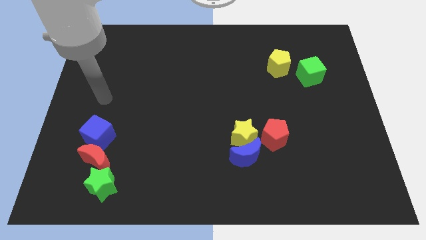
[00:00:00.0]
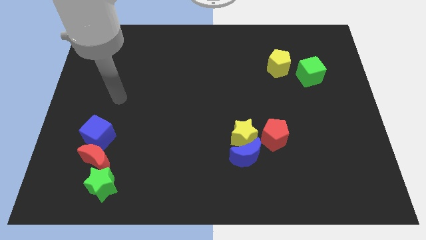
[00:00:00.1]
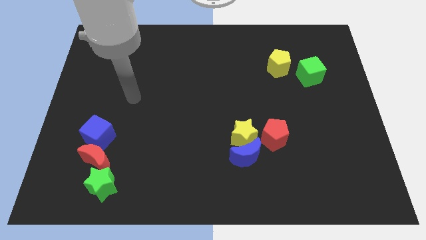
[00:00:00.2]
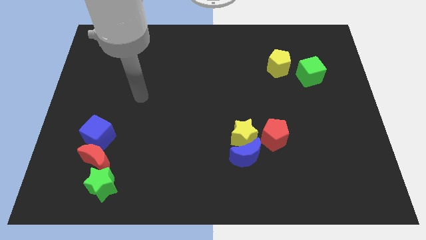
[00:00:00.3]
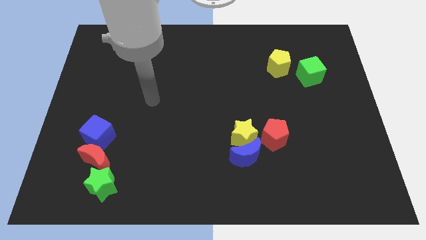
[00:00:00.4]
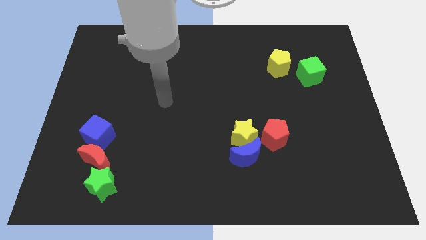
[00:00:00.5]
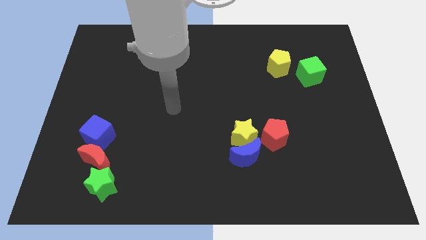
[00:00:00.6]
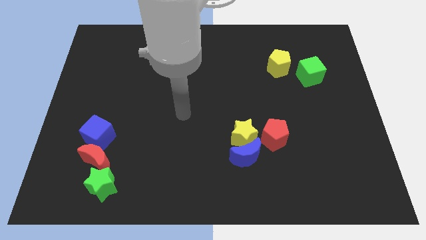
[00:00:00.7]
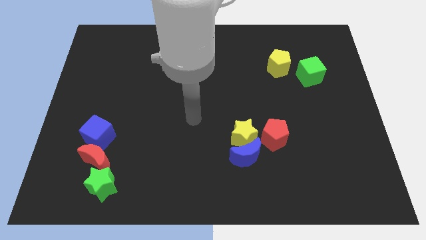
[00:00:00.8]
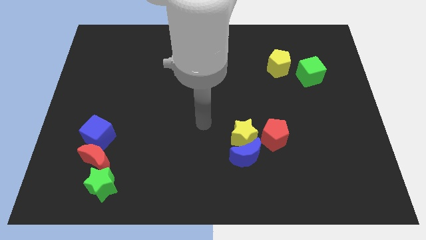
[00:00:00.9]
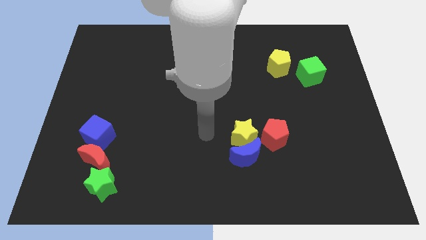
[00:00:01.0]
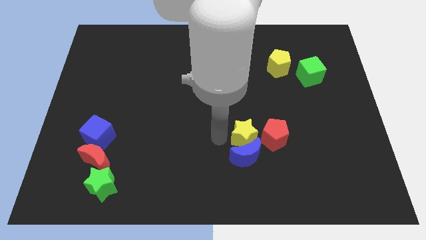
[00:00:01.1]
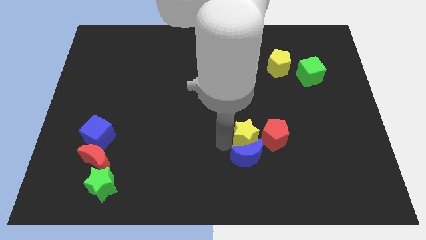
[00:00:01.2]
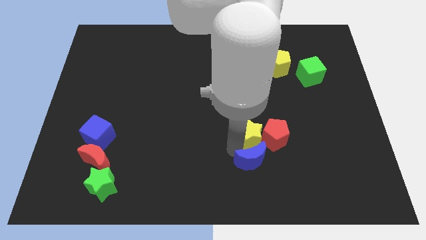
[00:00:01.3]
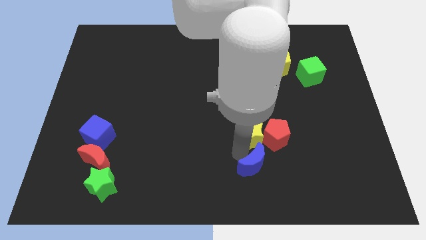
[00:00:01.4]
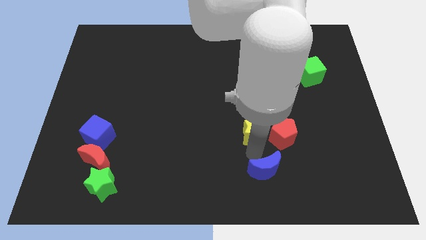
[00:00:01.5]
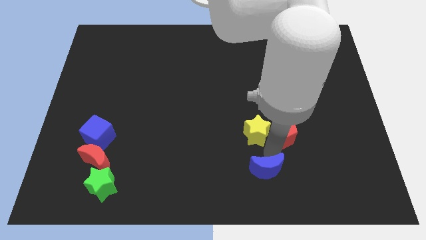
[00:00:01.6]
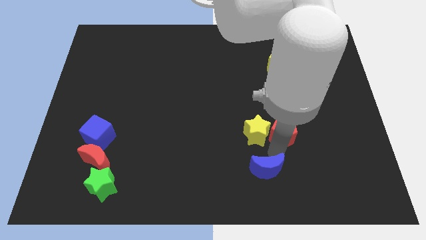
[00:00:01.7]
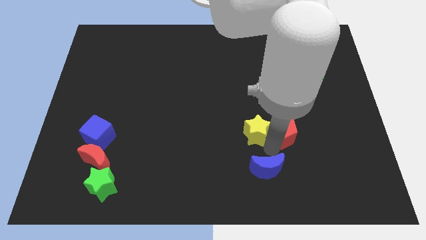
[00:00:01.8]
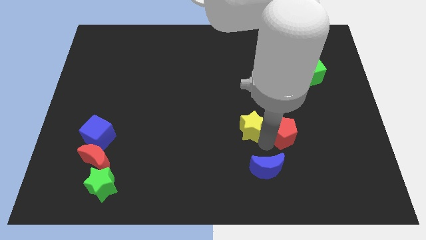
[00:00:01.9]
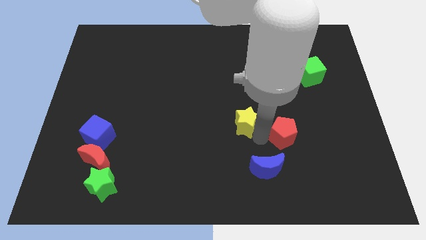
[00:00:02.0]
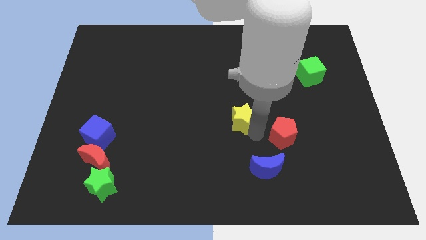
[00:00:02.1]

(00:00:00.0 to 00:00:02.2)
separate the yellow star from the blue moon and red pentagon

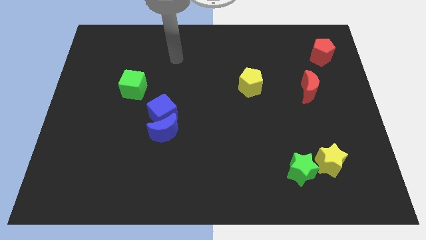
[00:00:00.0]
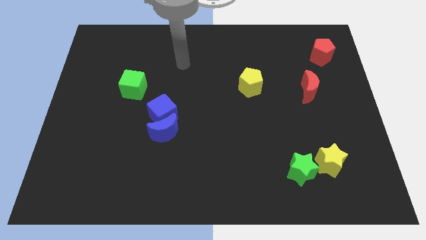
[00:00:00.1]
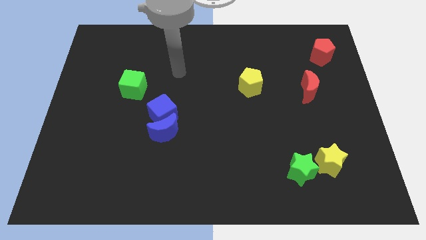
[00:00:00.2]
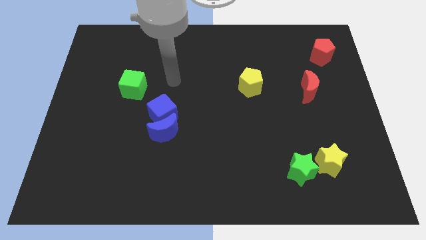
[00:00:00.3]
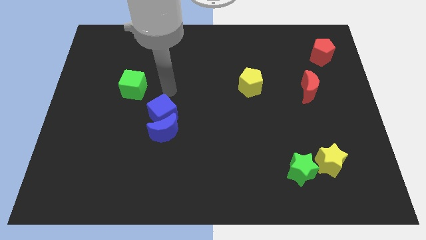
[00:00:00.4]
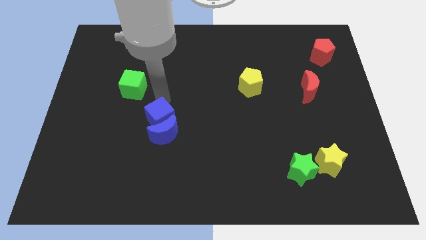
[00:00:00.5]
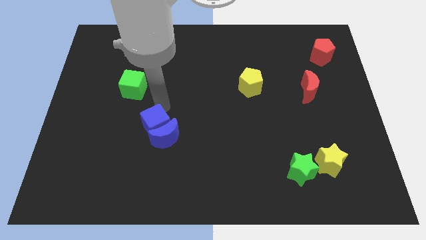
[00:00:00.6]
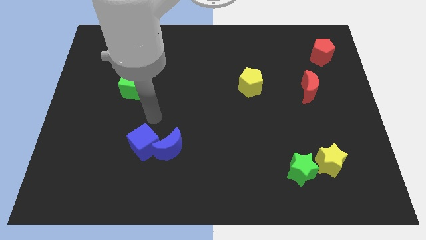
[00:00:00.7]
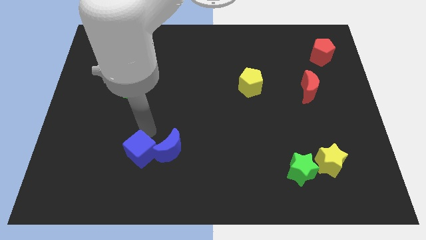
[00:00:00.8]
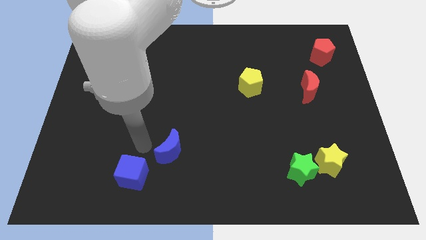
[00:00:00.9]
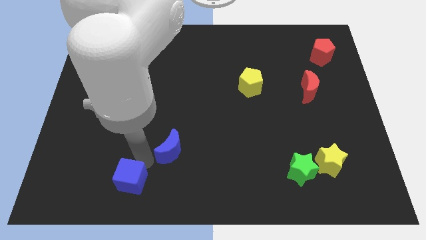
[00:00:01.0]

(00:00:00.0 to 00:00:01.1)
move the blue moon away from the blue cube

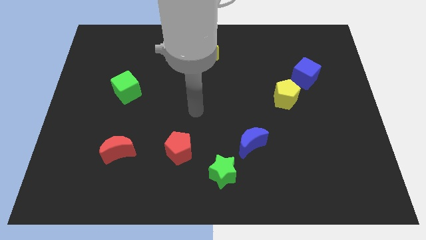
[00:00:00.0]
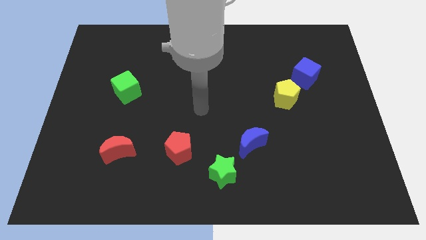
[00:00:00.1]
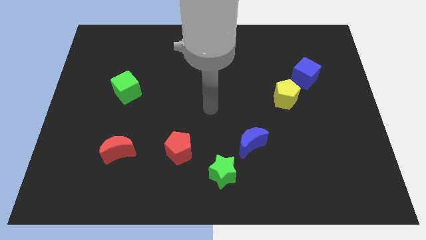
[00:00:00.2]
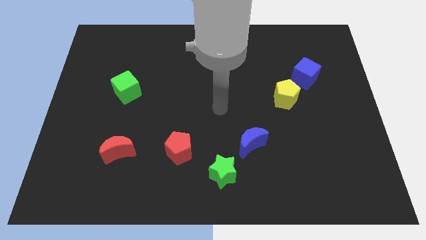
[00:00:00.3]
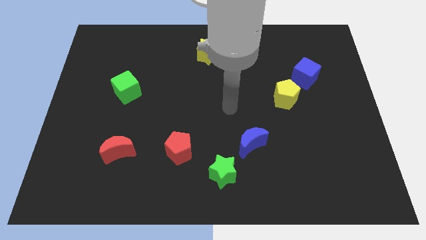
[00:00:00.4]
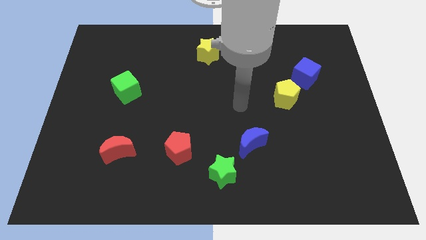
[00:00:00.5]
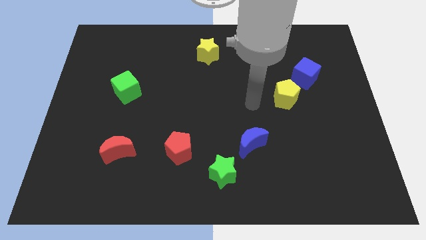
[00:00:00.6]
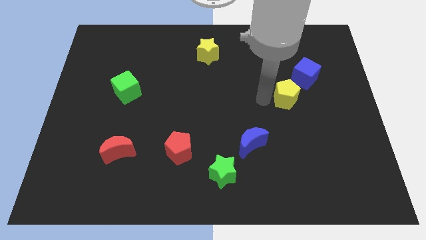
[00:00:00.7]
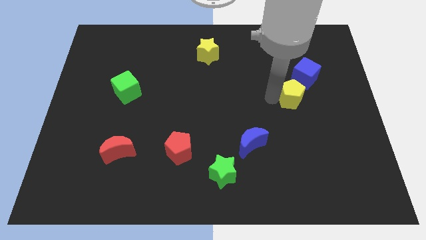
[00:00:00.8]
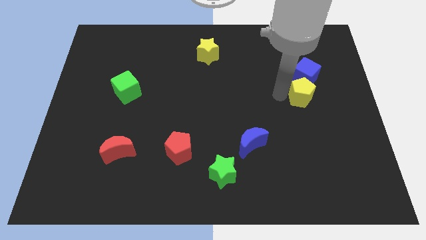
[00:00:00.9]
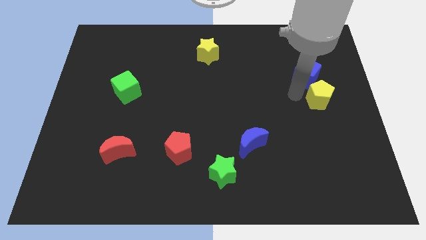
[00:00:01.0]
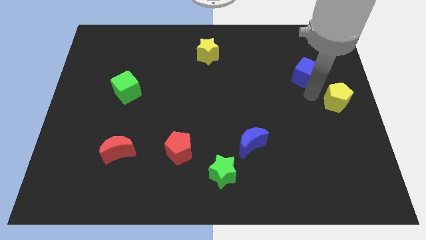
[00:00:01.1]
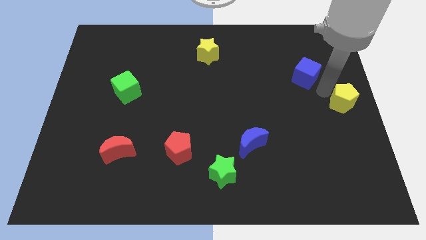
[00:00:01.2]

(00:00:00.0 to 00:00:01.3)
move the blue cube away from the yellow pentagon

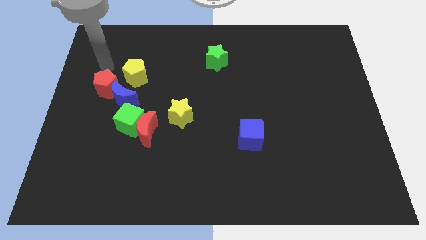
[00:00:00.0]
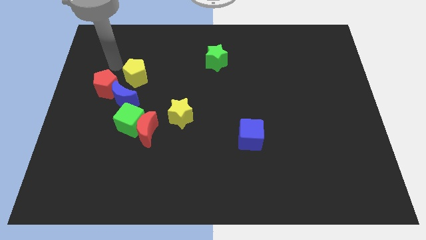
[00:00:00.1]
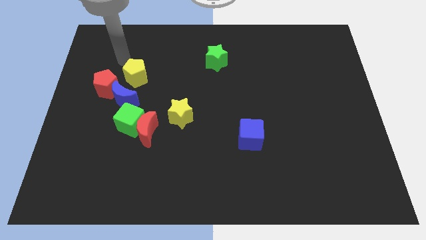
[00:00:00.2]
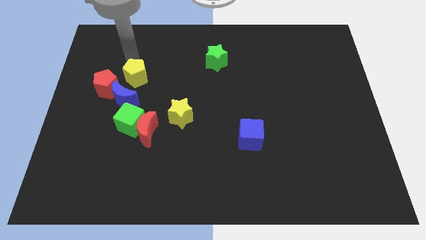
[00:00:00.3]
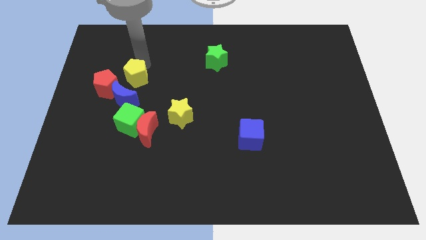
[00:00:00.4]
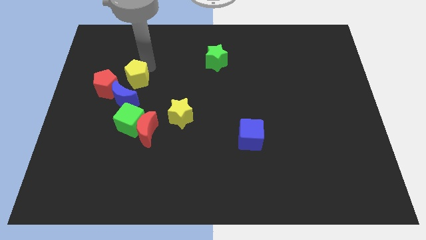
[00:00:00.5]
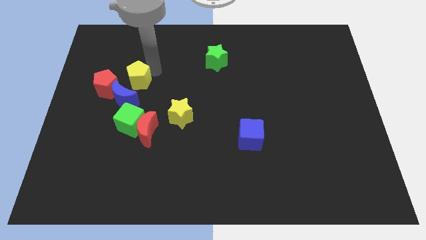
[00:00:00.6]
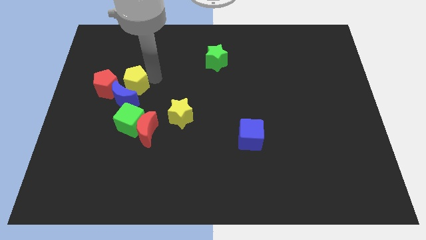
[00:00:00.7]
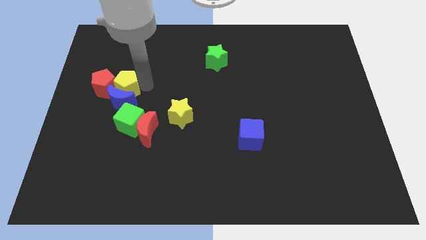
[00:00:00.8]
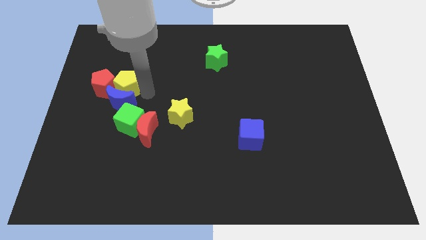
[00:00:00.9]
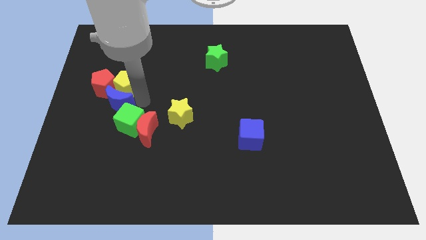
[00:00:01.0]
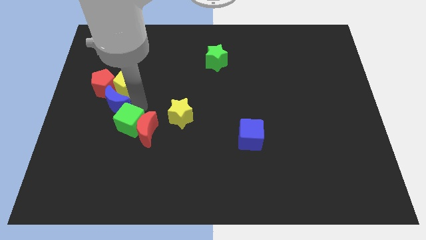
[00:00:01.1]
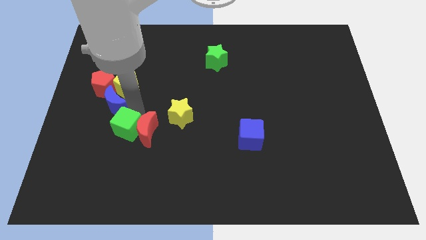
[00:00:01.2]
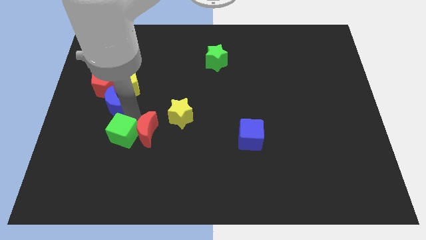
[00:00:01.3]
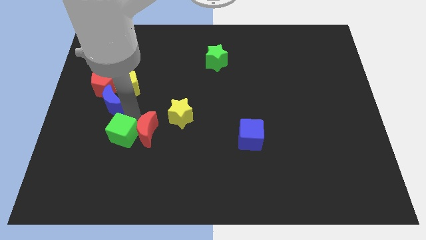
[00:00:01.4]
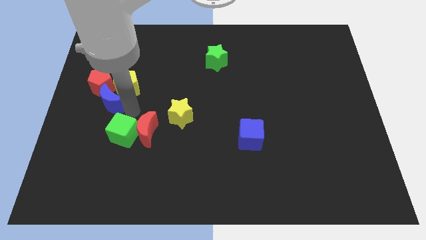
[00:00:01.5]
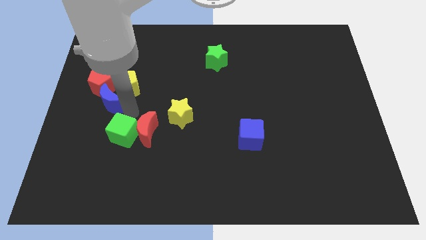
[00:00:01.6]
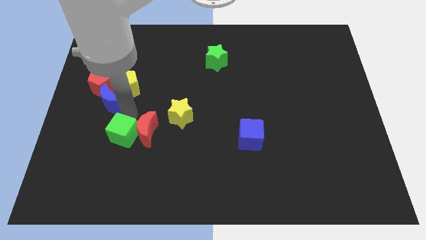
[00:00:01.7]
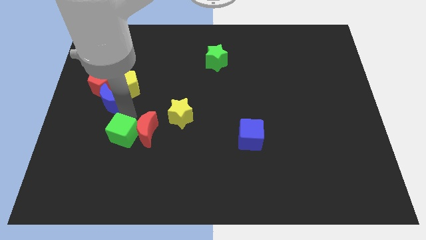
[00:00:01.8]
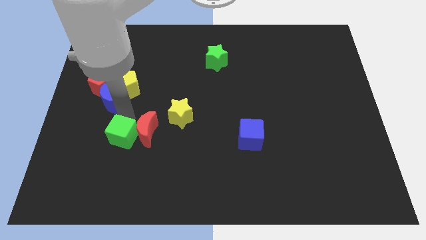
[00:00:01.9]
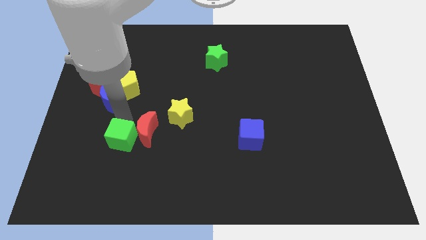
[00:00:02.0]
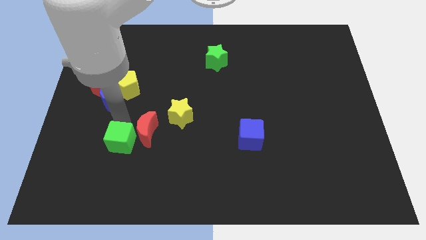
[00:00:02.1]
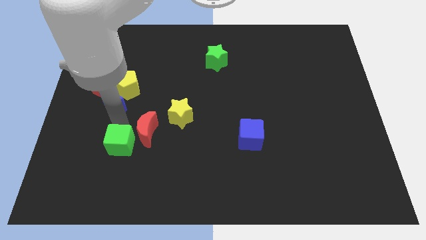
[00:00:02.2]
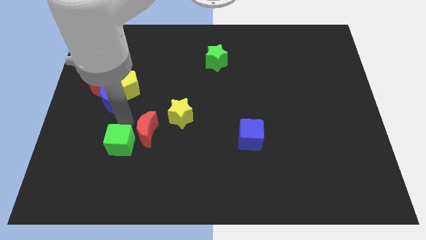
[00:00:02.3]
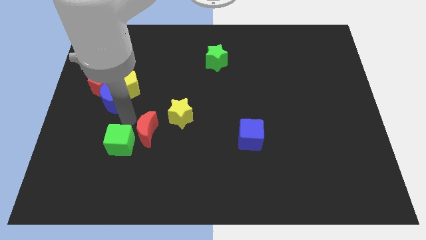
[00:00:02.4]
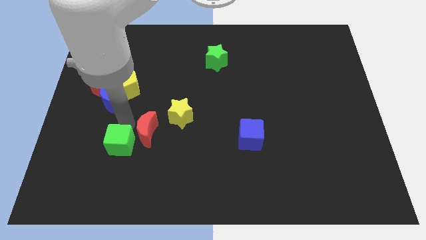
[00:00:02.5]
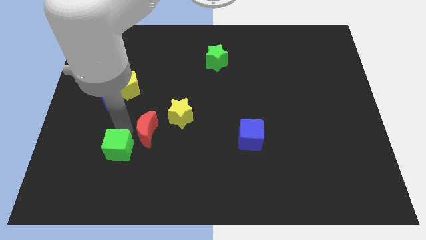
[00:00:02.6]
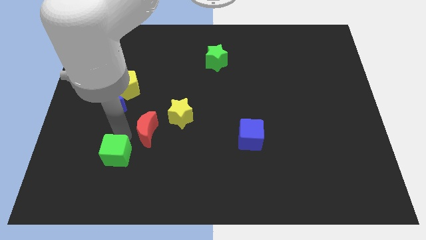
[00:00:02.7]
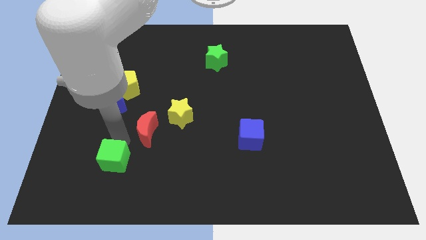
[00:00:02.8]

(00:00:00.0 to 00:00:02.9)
separate the green cube from the red moon and blue moon

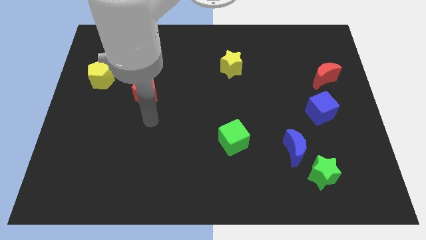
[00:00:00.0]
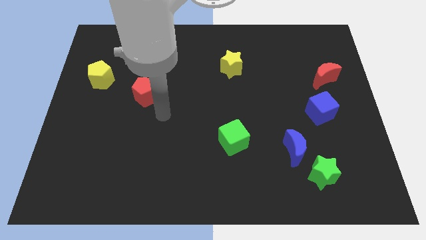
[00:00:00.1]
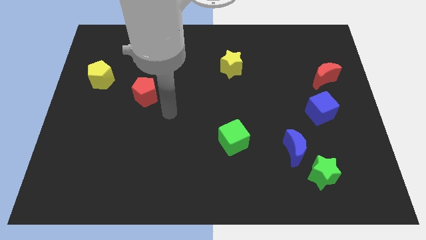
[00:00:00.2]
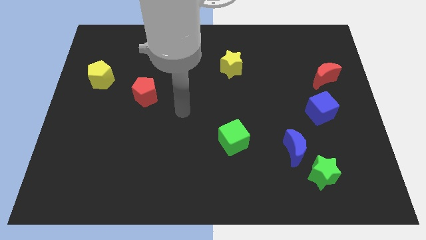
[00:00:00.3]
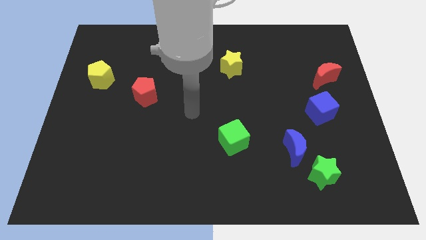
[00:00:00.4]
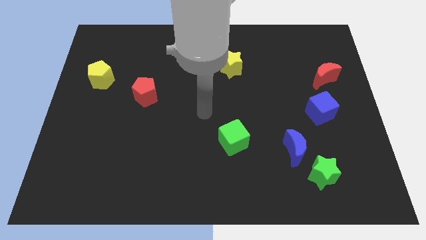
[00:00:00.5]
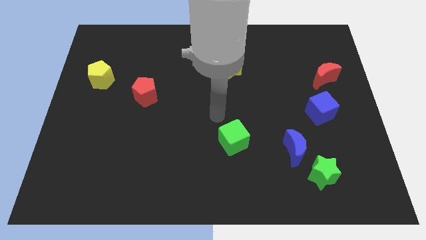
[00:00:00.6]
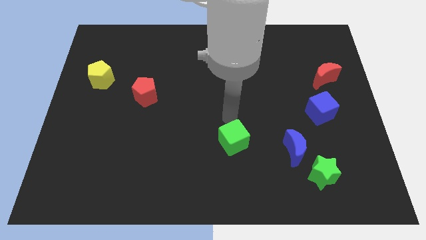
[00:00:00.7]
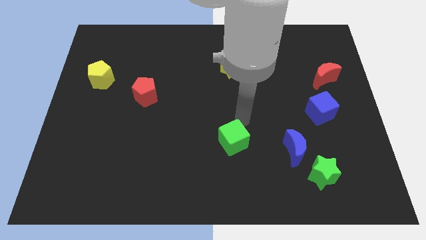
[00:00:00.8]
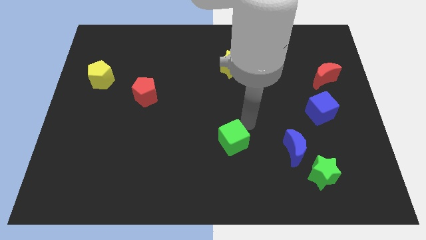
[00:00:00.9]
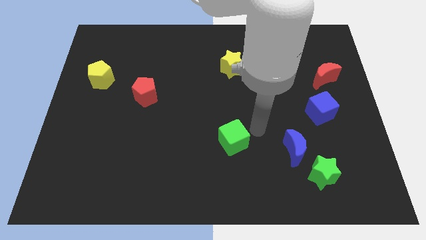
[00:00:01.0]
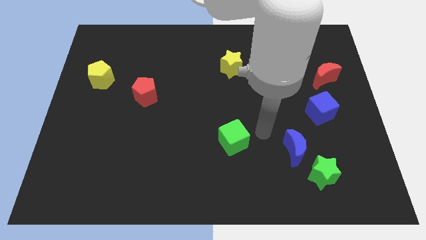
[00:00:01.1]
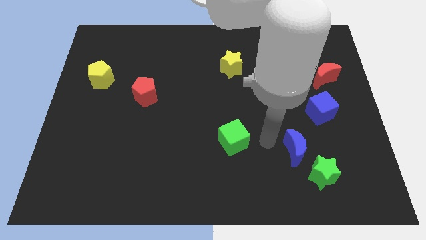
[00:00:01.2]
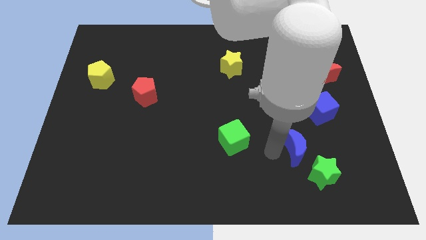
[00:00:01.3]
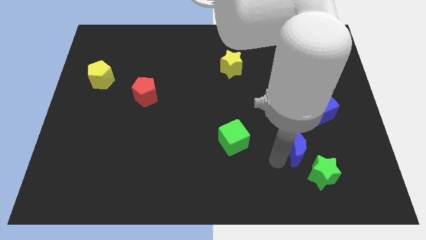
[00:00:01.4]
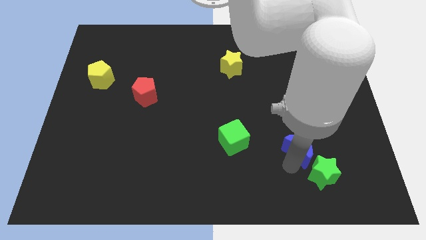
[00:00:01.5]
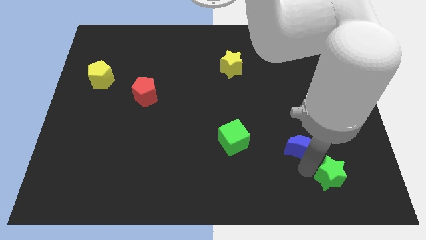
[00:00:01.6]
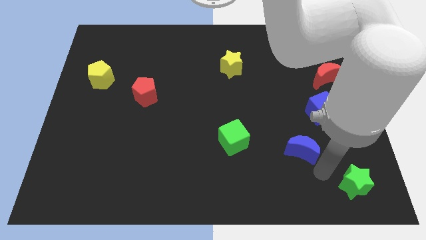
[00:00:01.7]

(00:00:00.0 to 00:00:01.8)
move the blue moon away from the green star
